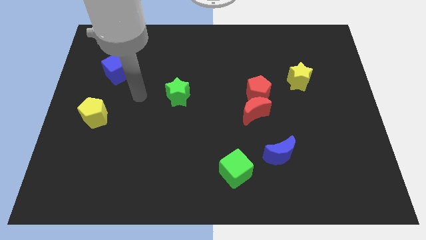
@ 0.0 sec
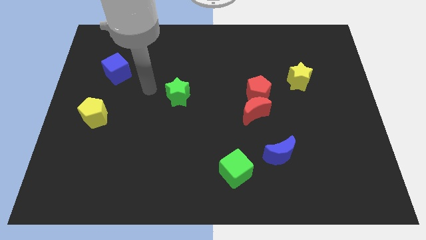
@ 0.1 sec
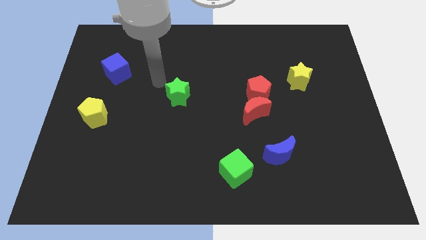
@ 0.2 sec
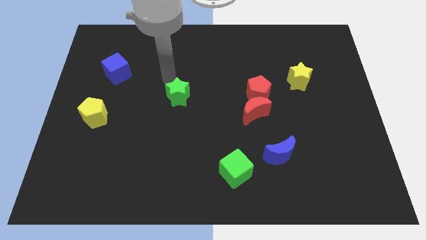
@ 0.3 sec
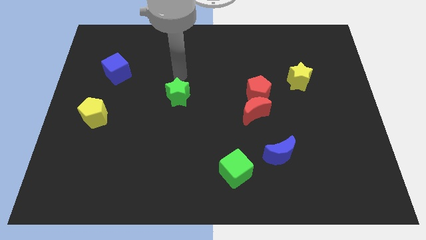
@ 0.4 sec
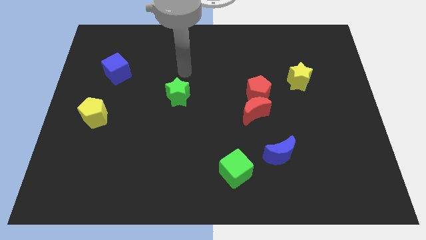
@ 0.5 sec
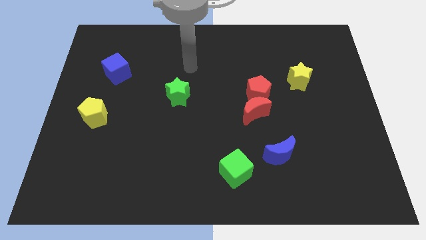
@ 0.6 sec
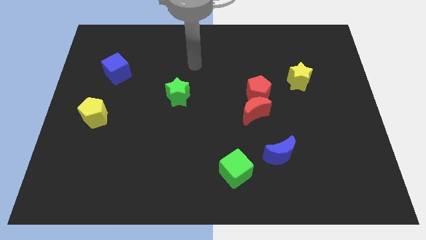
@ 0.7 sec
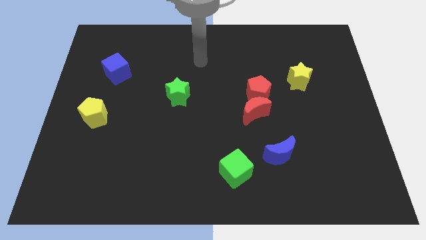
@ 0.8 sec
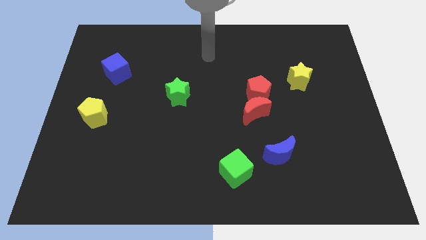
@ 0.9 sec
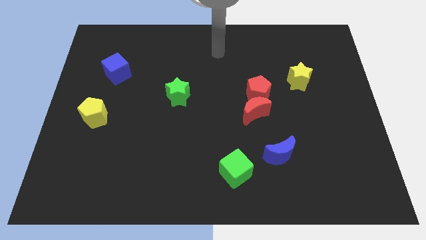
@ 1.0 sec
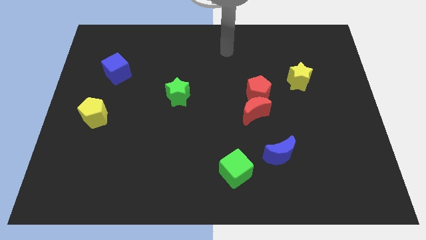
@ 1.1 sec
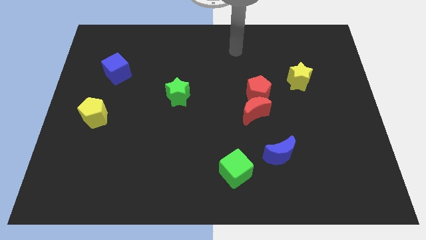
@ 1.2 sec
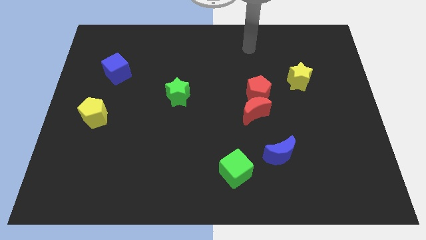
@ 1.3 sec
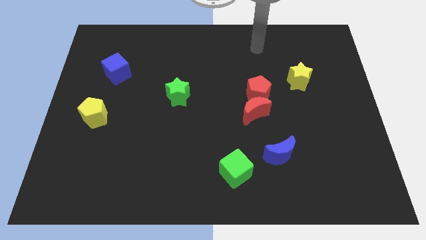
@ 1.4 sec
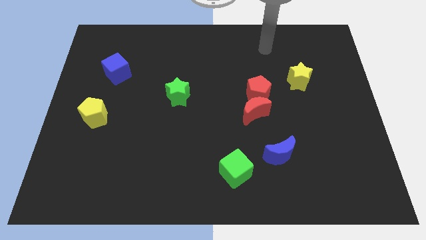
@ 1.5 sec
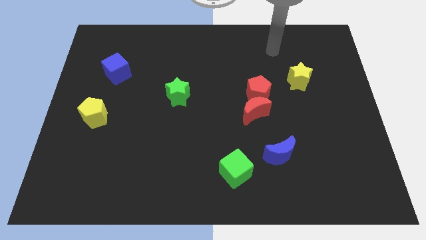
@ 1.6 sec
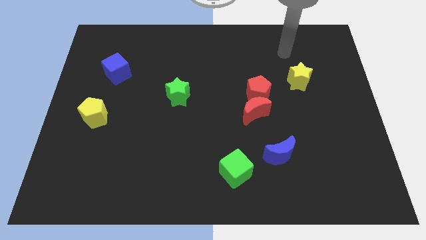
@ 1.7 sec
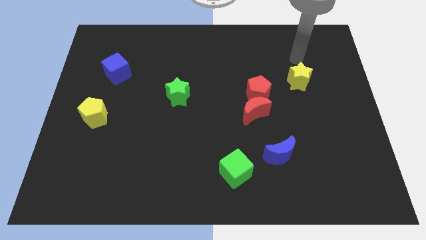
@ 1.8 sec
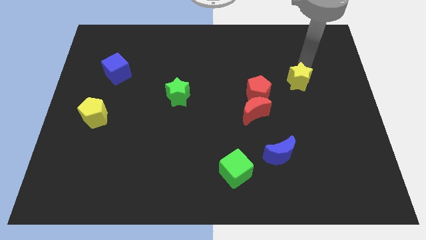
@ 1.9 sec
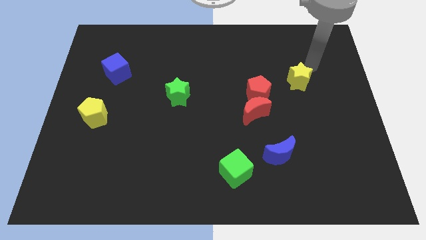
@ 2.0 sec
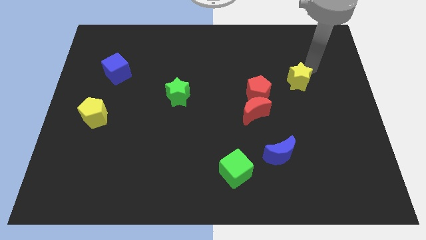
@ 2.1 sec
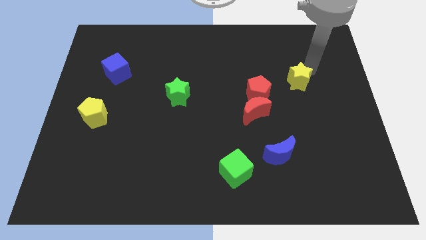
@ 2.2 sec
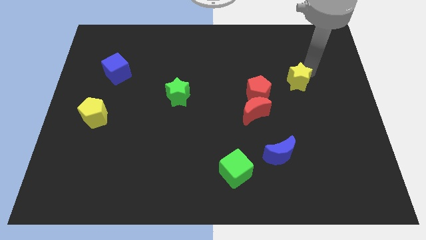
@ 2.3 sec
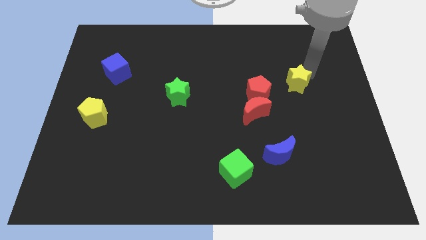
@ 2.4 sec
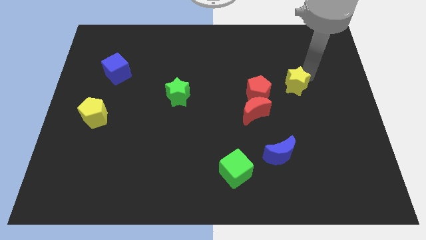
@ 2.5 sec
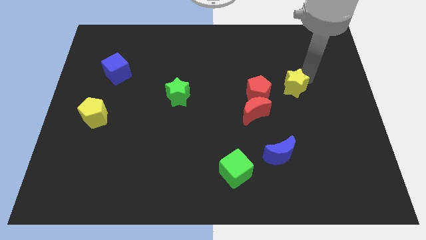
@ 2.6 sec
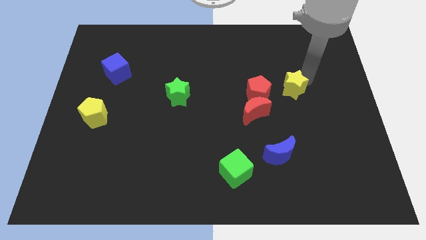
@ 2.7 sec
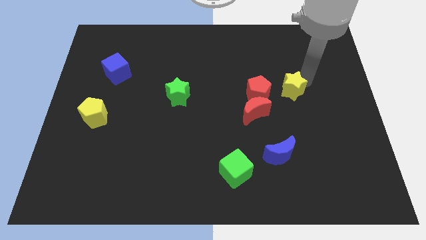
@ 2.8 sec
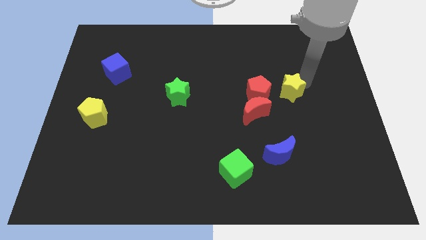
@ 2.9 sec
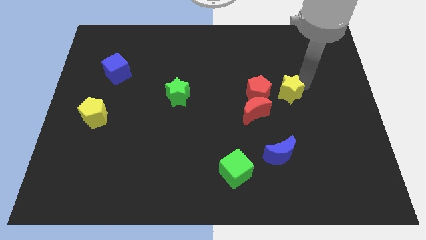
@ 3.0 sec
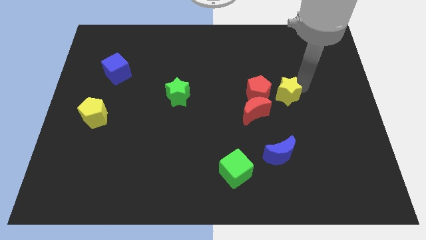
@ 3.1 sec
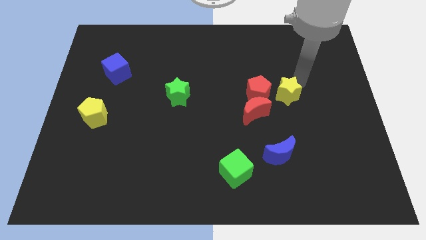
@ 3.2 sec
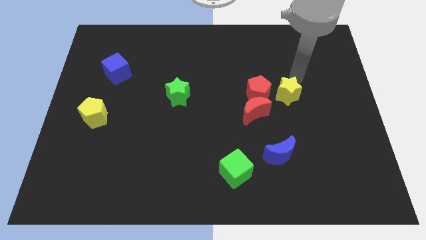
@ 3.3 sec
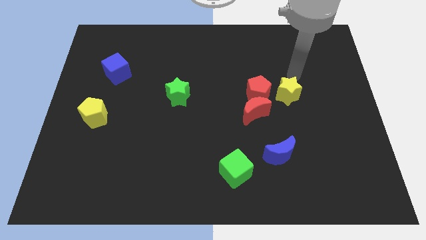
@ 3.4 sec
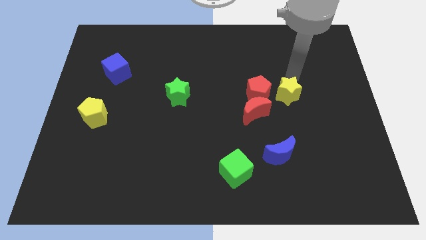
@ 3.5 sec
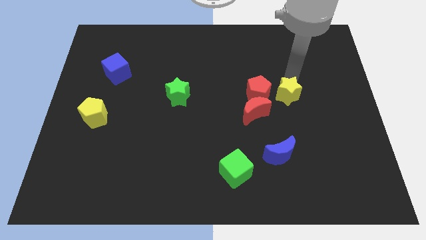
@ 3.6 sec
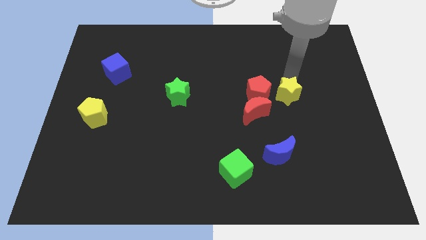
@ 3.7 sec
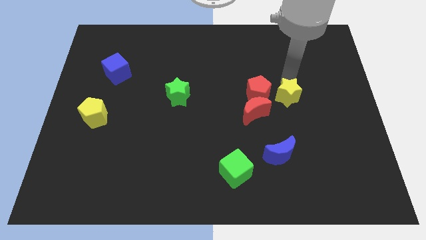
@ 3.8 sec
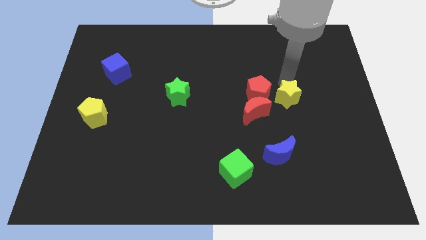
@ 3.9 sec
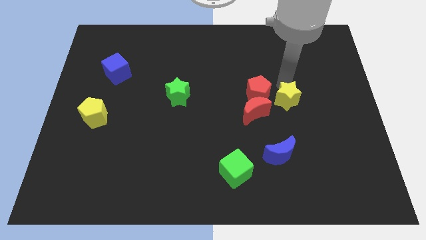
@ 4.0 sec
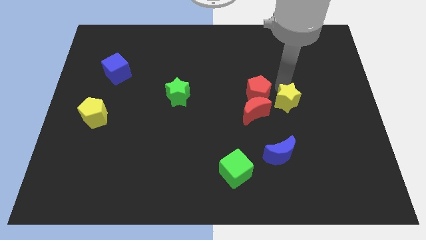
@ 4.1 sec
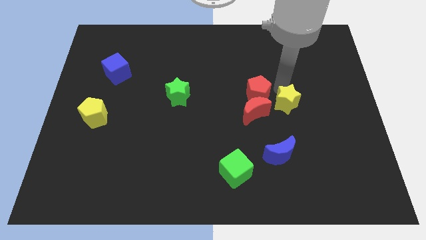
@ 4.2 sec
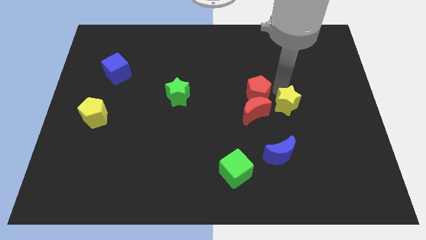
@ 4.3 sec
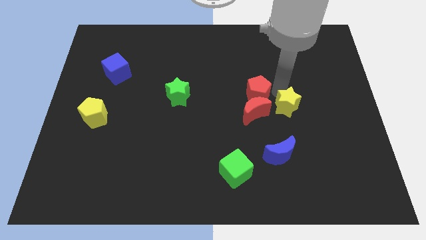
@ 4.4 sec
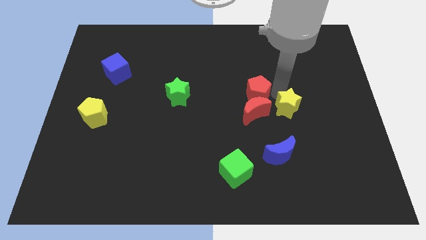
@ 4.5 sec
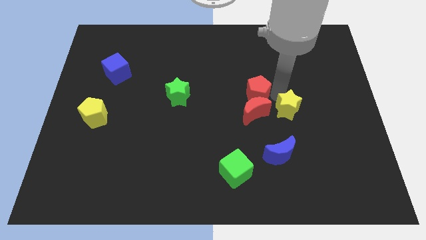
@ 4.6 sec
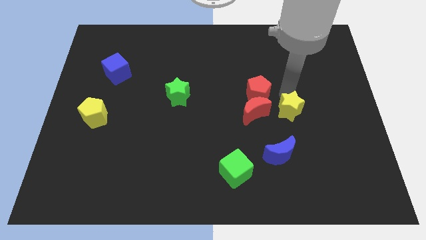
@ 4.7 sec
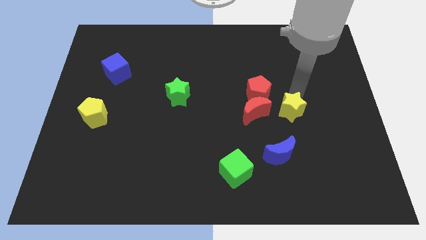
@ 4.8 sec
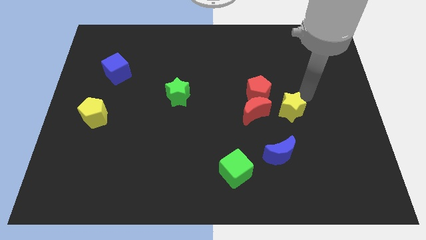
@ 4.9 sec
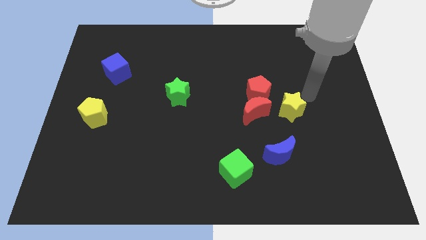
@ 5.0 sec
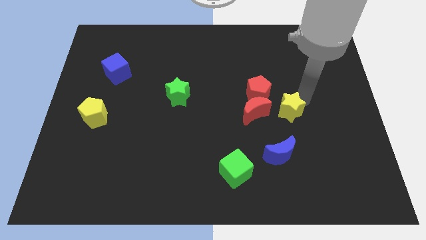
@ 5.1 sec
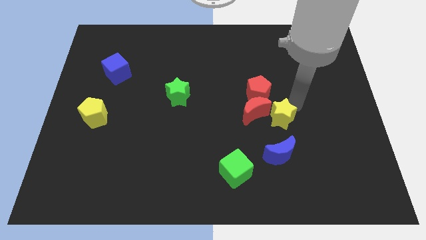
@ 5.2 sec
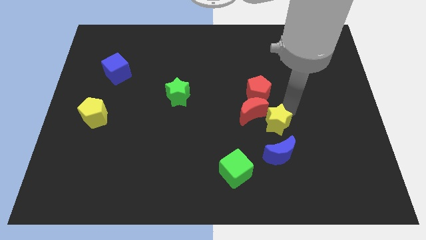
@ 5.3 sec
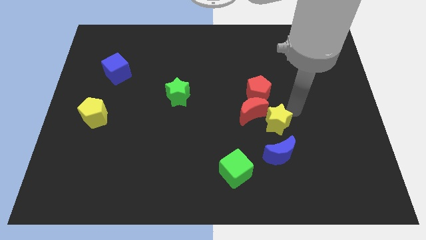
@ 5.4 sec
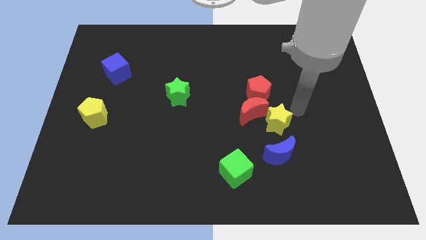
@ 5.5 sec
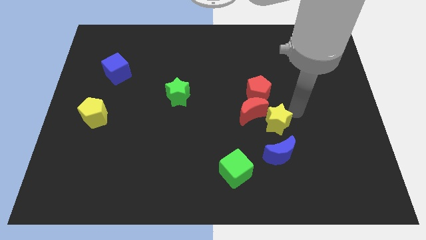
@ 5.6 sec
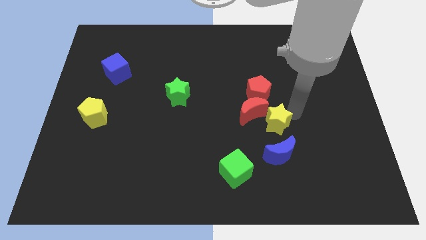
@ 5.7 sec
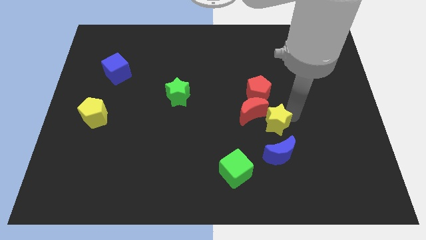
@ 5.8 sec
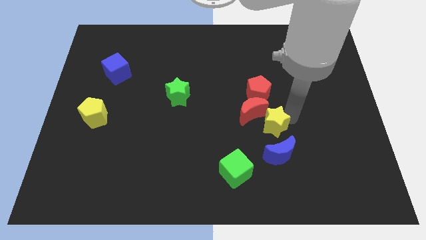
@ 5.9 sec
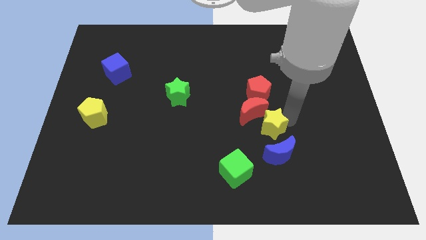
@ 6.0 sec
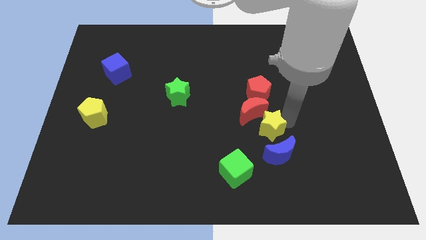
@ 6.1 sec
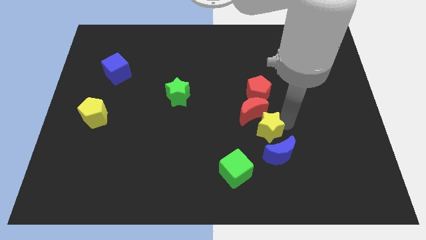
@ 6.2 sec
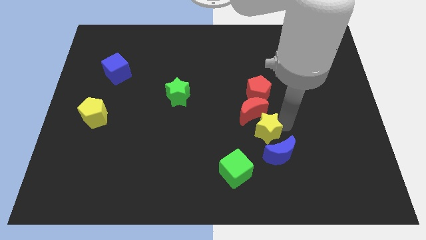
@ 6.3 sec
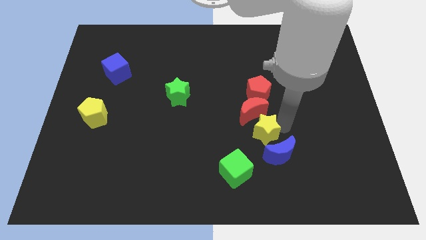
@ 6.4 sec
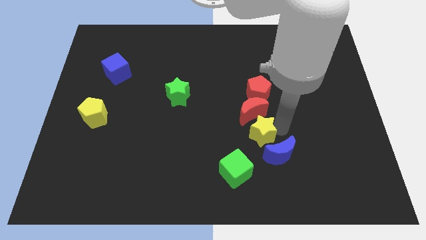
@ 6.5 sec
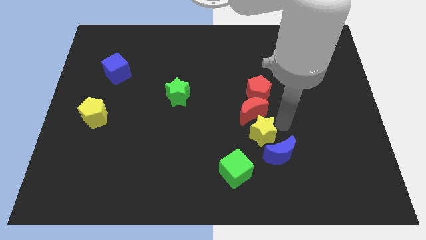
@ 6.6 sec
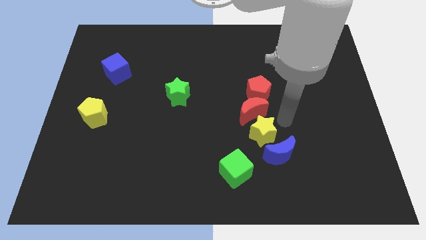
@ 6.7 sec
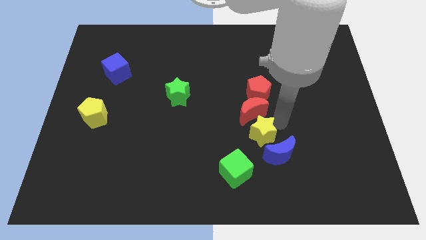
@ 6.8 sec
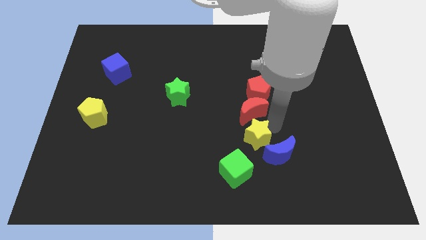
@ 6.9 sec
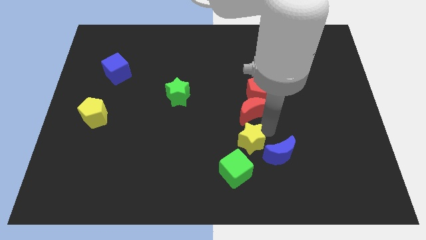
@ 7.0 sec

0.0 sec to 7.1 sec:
push the yellow star down and left

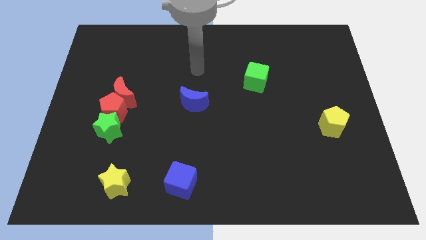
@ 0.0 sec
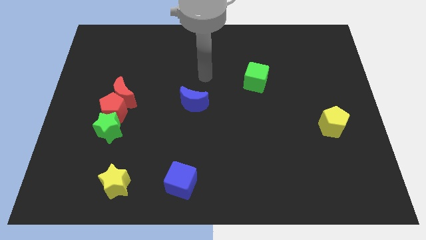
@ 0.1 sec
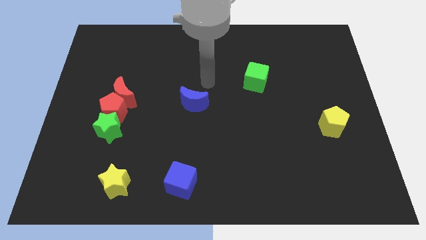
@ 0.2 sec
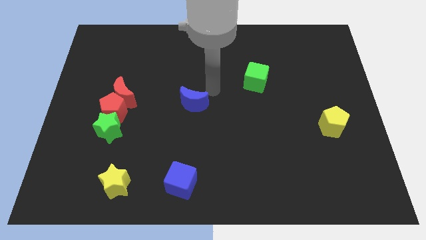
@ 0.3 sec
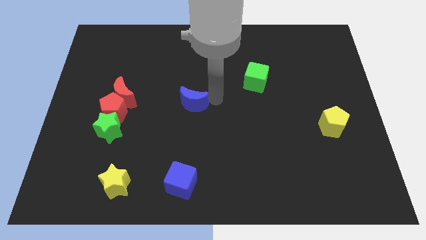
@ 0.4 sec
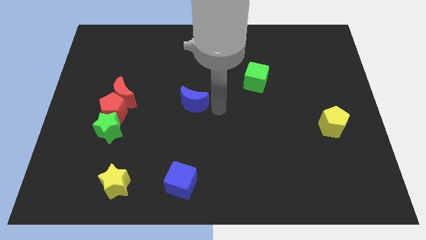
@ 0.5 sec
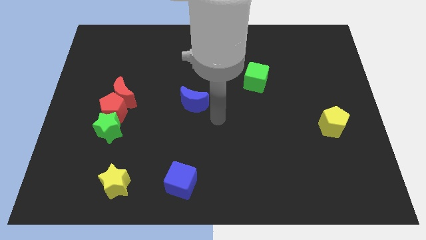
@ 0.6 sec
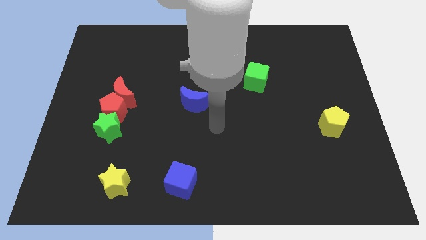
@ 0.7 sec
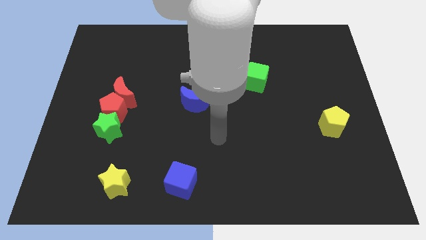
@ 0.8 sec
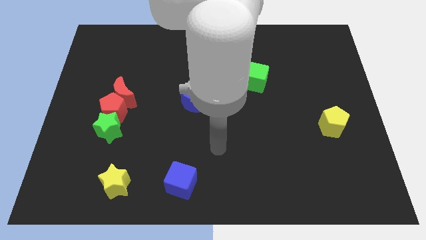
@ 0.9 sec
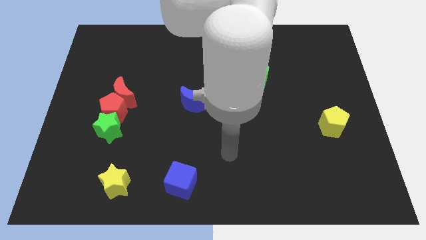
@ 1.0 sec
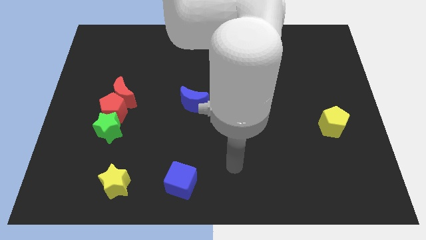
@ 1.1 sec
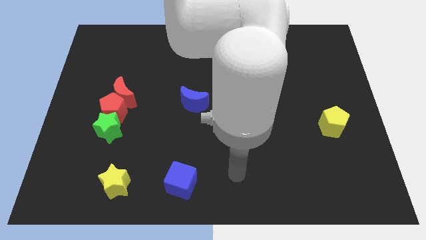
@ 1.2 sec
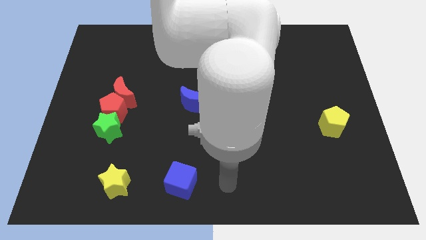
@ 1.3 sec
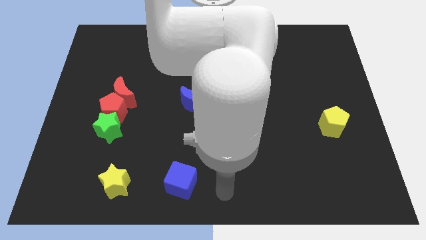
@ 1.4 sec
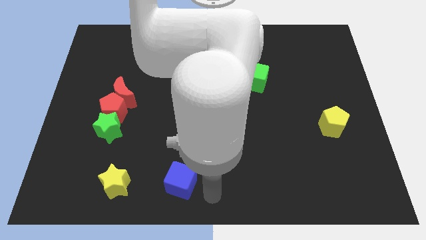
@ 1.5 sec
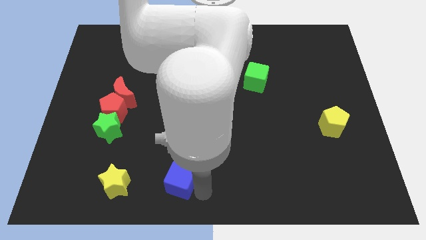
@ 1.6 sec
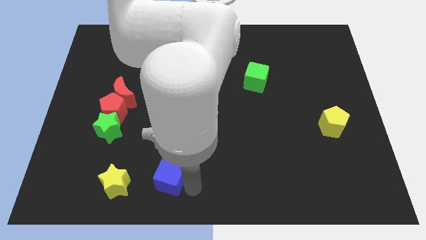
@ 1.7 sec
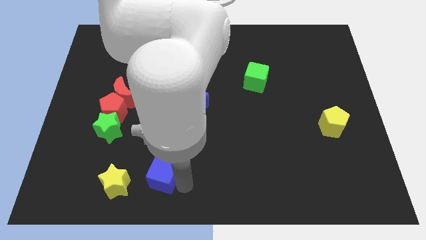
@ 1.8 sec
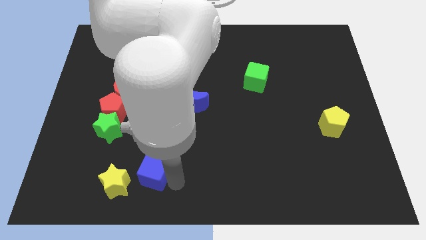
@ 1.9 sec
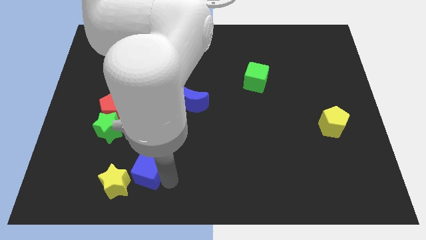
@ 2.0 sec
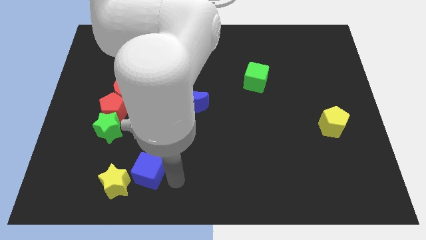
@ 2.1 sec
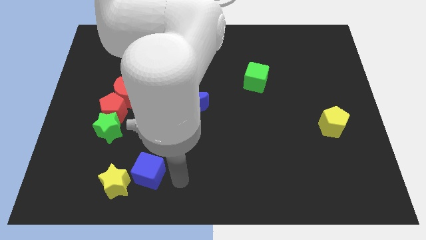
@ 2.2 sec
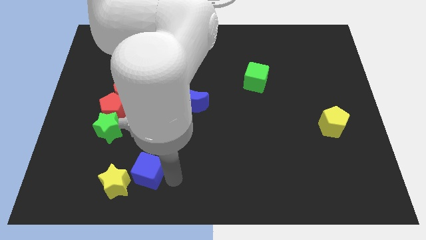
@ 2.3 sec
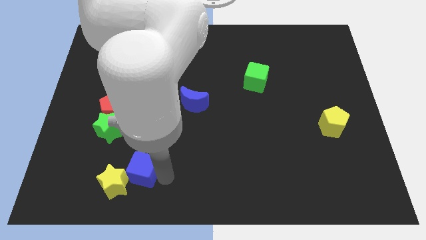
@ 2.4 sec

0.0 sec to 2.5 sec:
slightly slide the blue cube left
